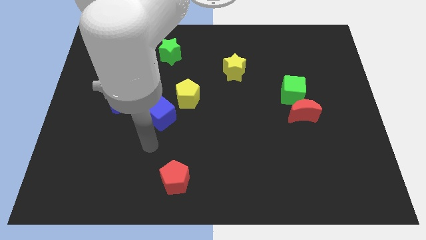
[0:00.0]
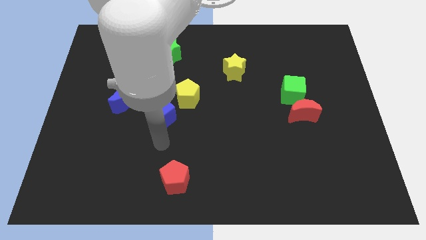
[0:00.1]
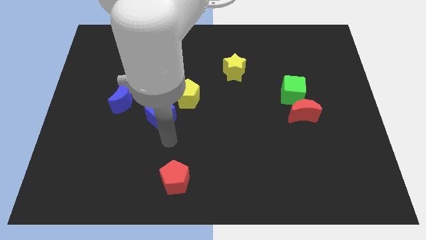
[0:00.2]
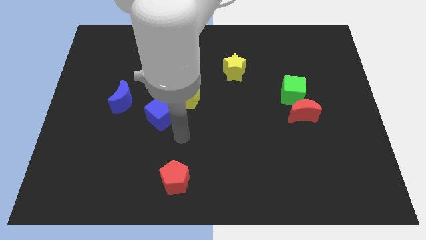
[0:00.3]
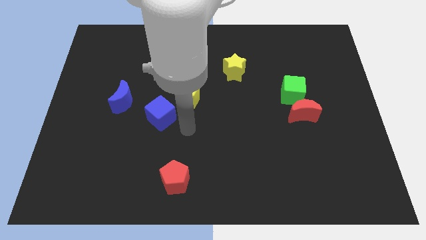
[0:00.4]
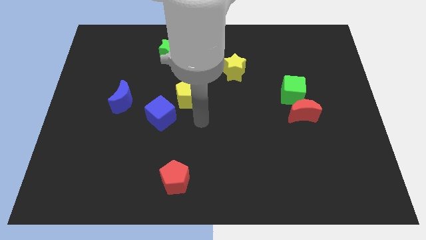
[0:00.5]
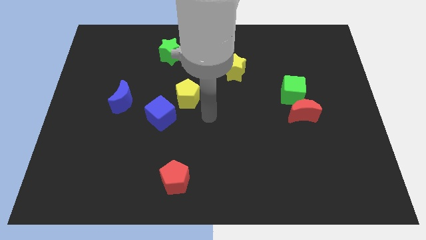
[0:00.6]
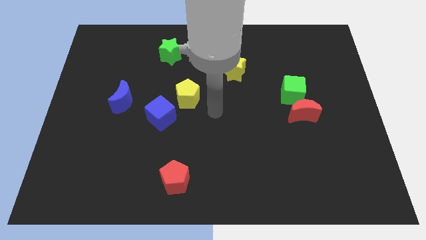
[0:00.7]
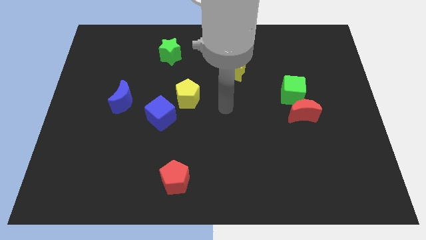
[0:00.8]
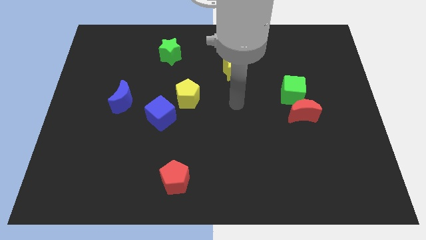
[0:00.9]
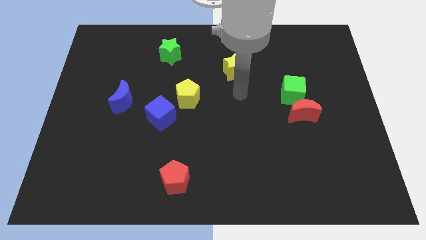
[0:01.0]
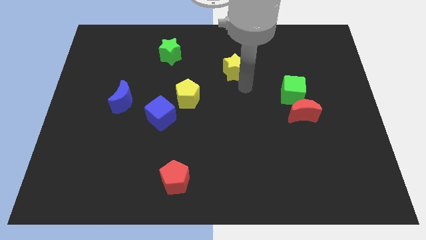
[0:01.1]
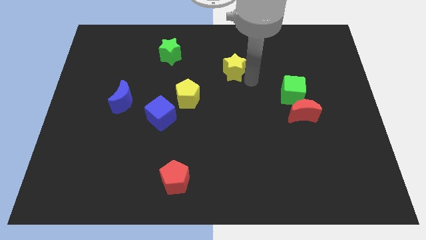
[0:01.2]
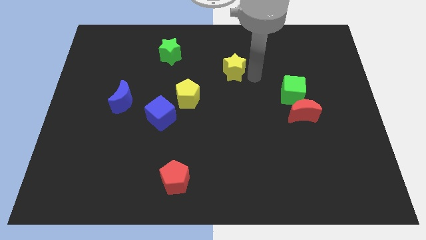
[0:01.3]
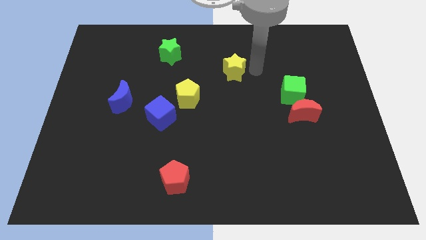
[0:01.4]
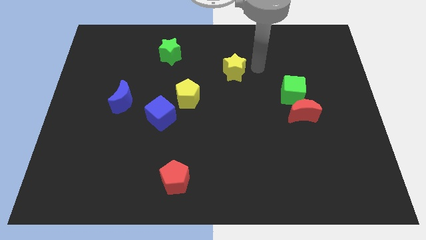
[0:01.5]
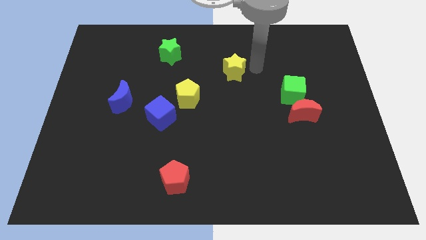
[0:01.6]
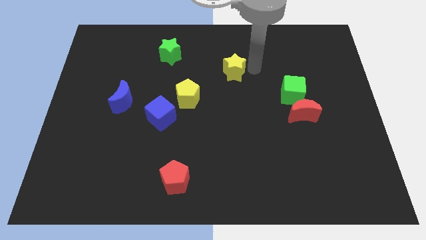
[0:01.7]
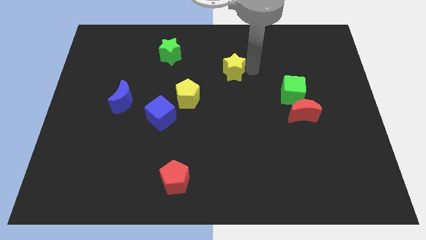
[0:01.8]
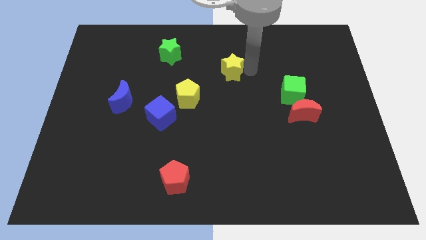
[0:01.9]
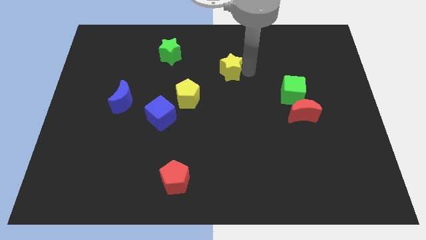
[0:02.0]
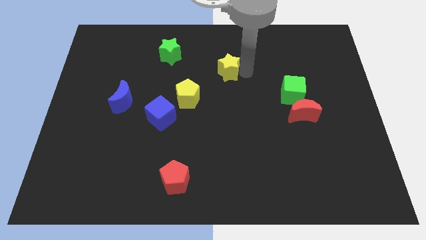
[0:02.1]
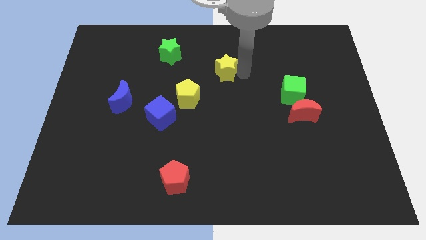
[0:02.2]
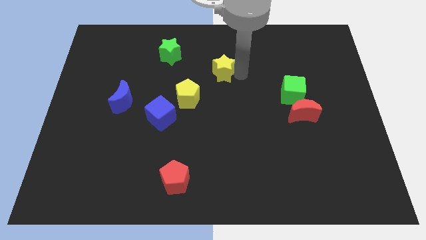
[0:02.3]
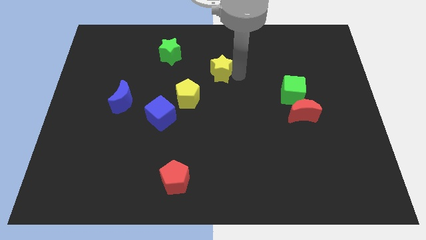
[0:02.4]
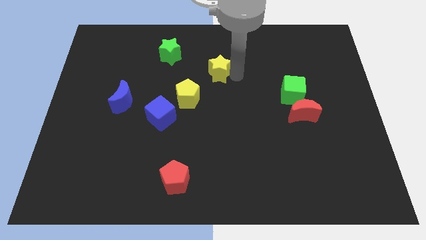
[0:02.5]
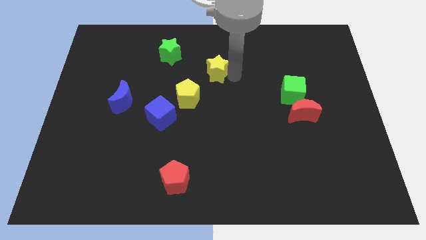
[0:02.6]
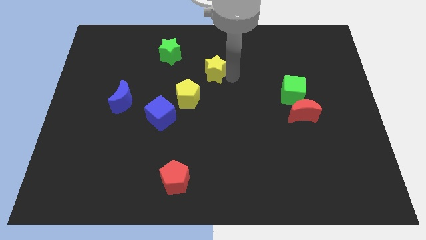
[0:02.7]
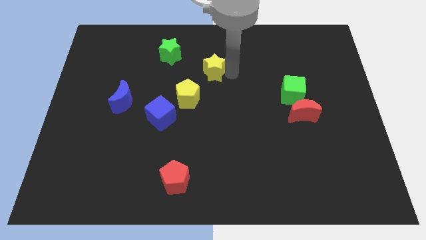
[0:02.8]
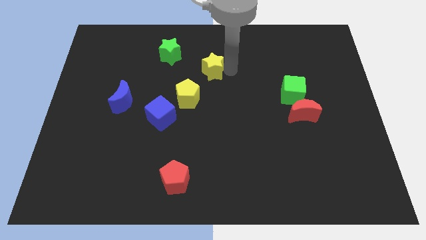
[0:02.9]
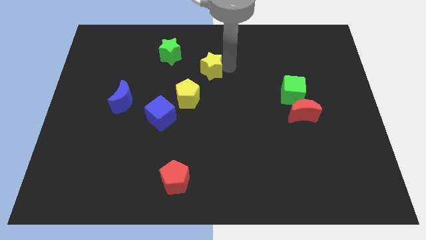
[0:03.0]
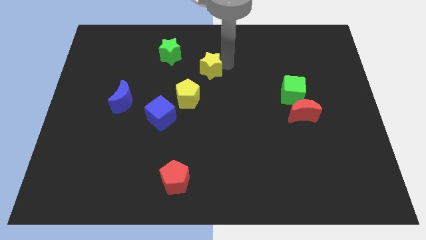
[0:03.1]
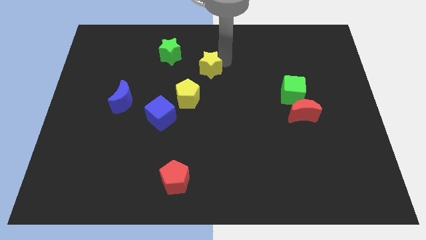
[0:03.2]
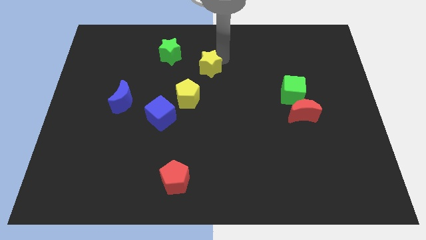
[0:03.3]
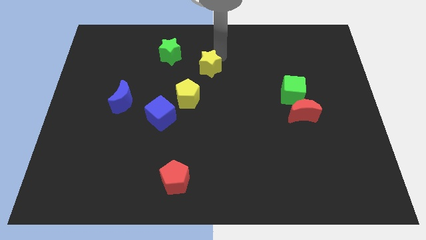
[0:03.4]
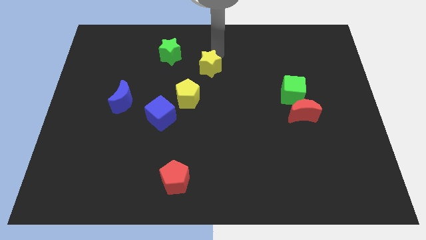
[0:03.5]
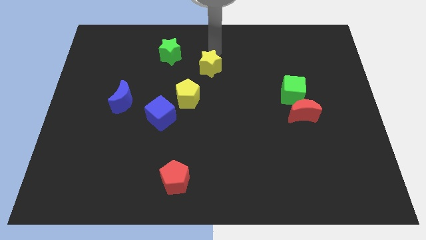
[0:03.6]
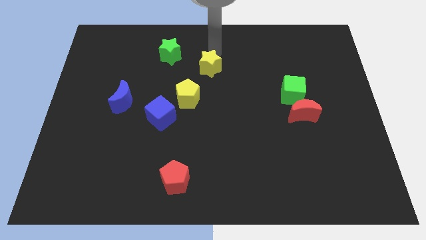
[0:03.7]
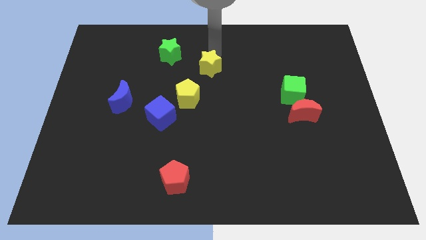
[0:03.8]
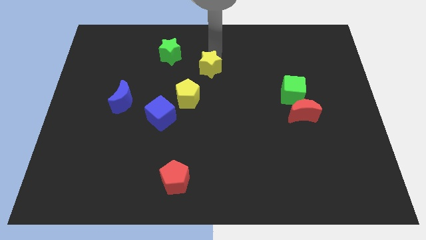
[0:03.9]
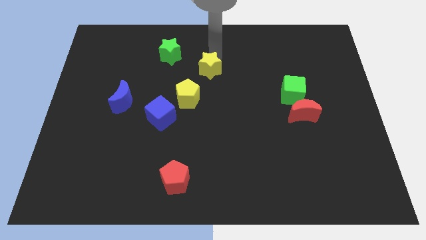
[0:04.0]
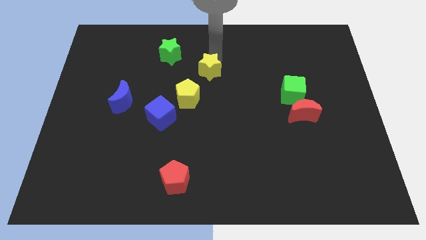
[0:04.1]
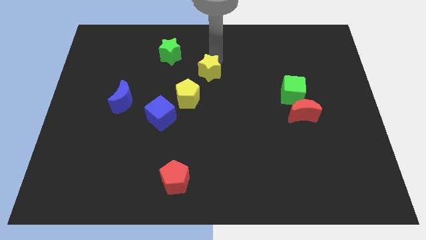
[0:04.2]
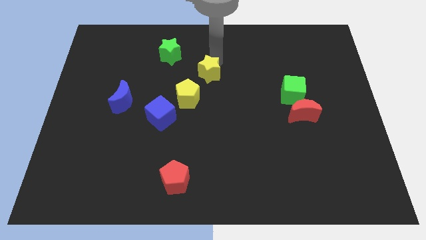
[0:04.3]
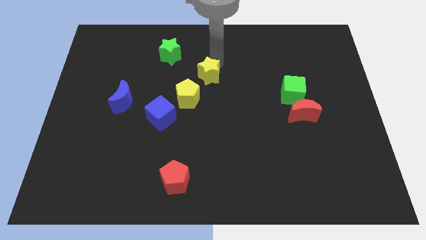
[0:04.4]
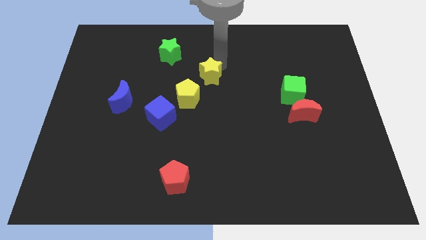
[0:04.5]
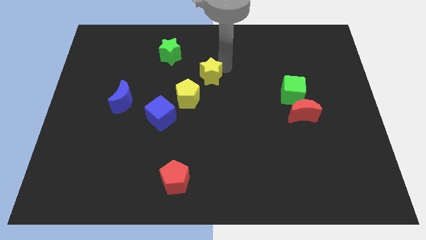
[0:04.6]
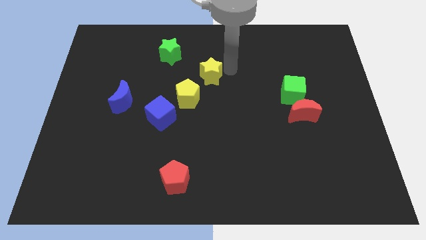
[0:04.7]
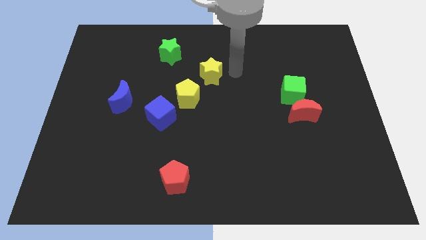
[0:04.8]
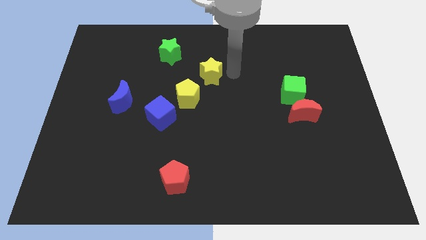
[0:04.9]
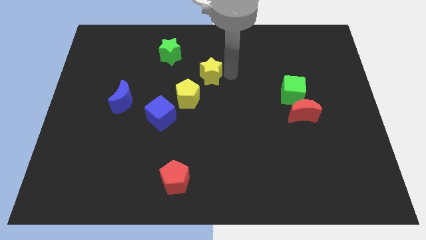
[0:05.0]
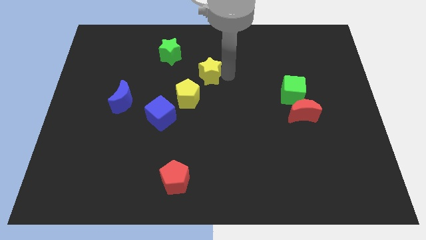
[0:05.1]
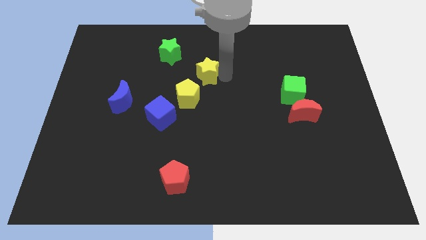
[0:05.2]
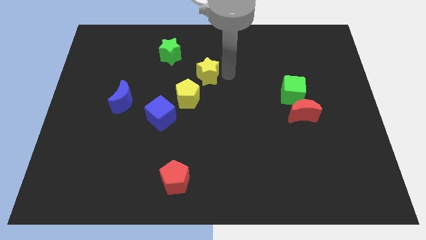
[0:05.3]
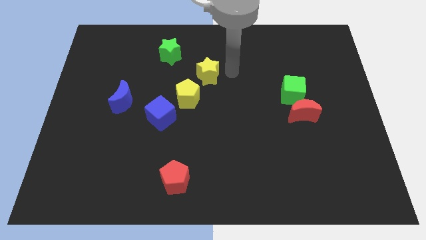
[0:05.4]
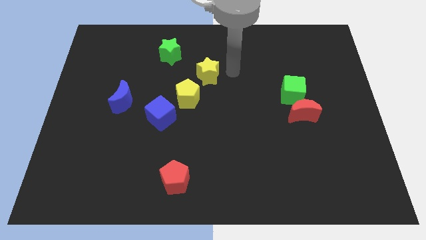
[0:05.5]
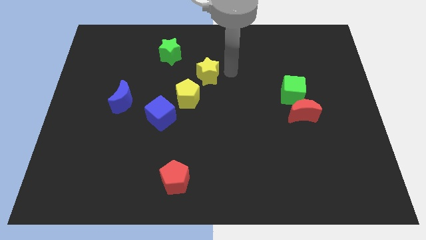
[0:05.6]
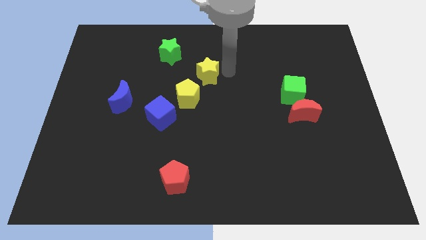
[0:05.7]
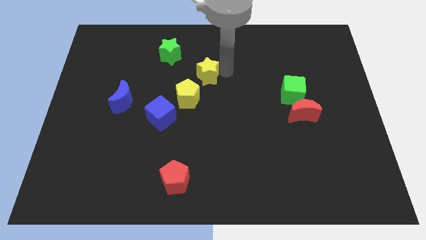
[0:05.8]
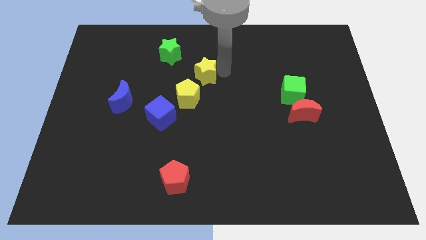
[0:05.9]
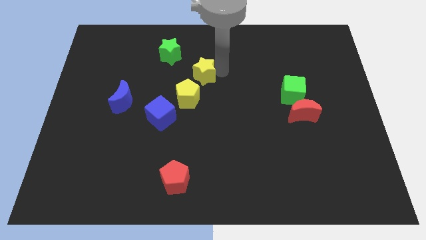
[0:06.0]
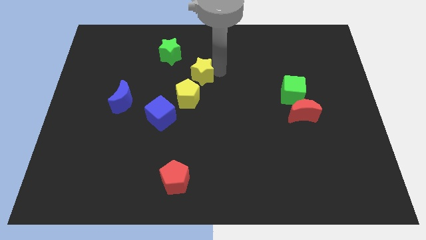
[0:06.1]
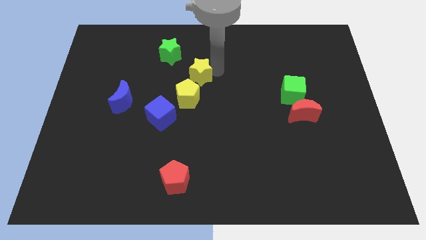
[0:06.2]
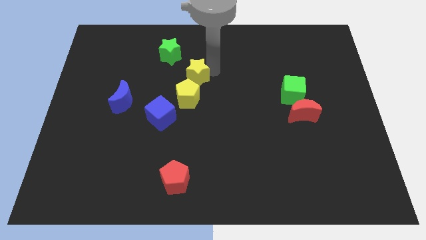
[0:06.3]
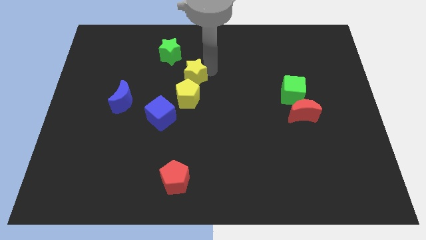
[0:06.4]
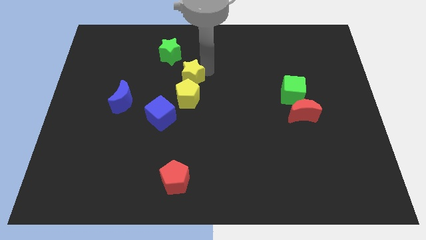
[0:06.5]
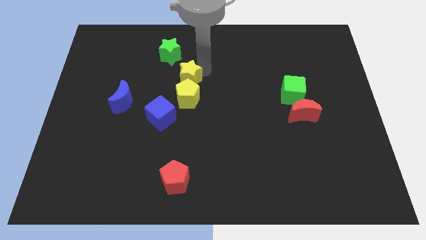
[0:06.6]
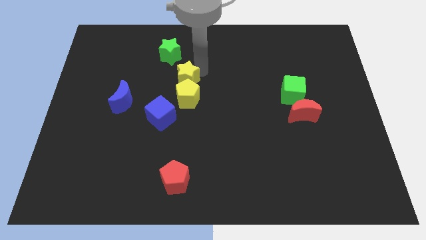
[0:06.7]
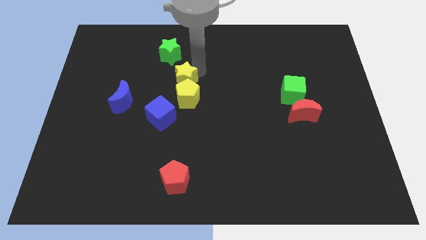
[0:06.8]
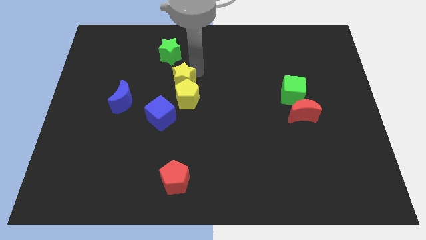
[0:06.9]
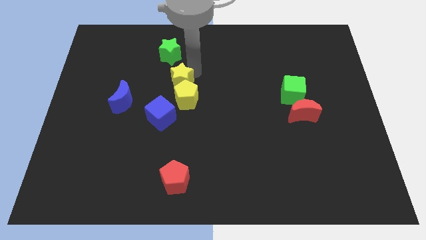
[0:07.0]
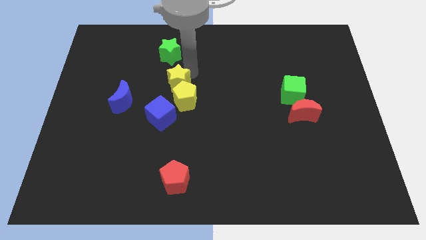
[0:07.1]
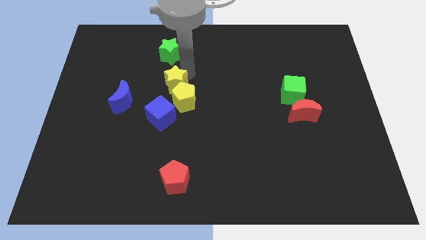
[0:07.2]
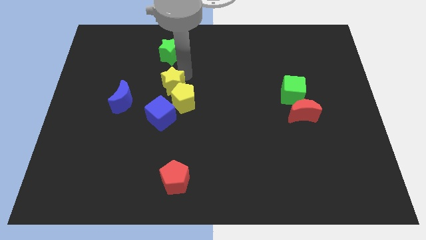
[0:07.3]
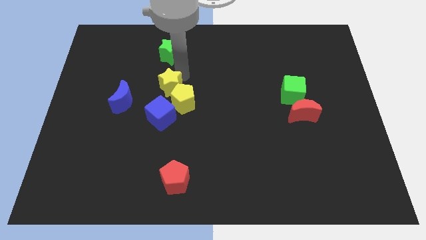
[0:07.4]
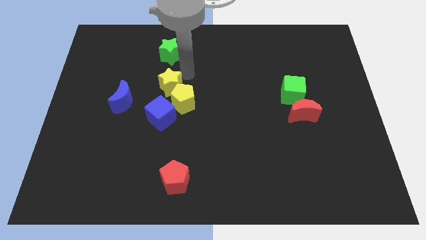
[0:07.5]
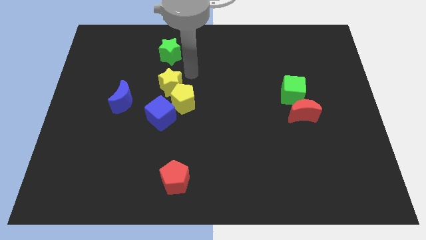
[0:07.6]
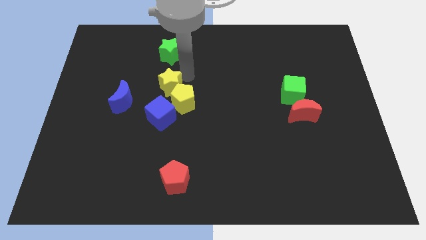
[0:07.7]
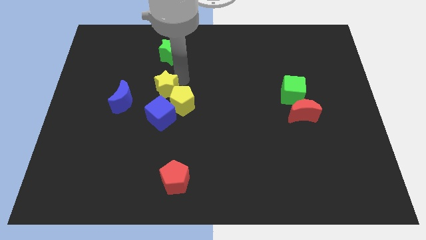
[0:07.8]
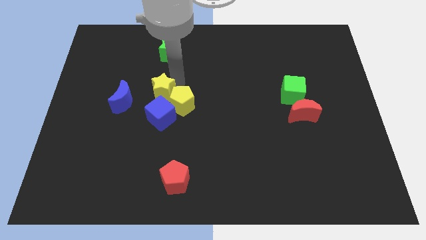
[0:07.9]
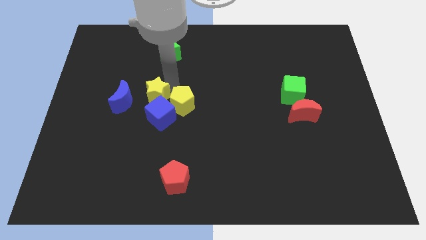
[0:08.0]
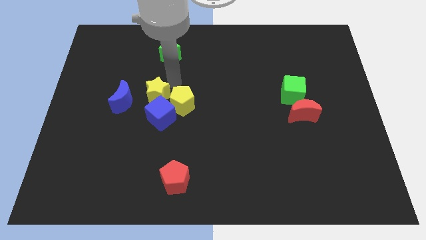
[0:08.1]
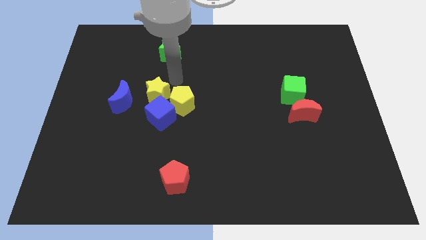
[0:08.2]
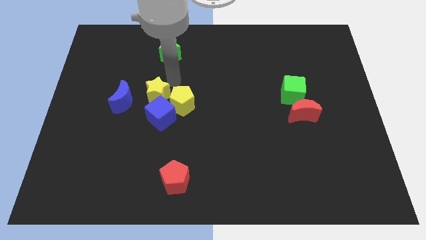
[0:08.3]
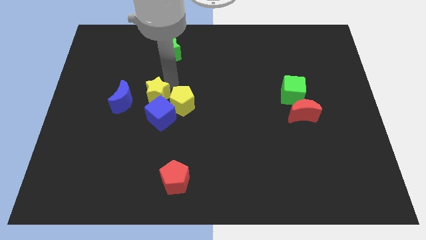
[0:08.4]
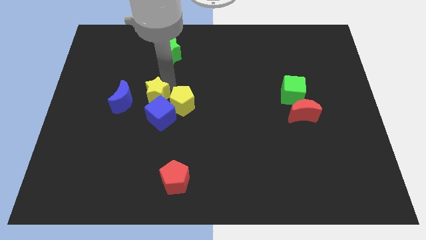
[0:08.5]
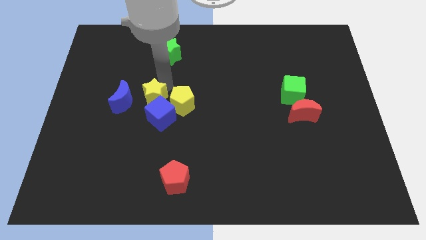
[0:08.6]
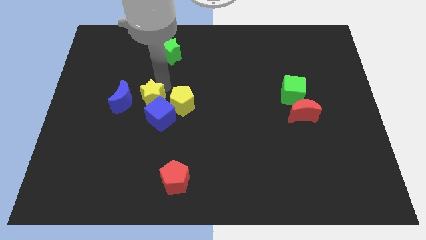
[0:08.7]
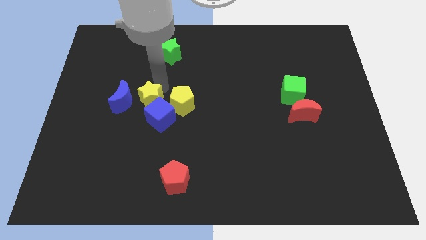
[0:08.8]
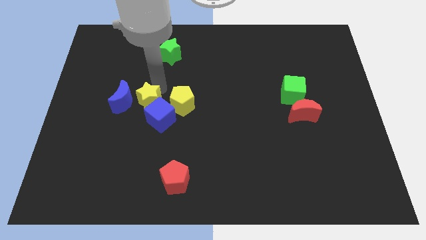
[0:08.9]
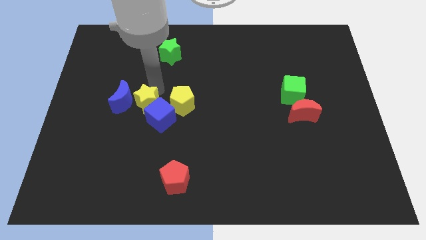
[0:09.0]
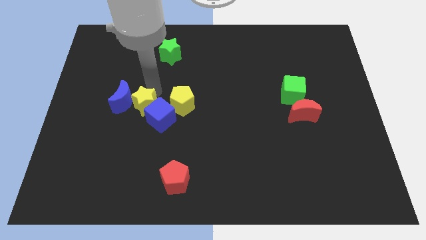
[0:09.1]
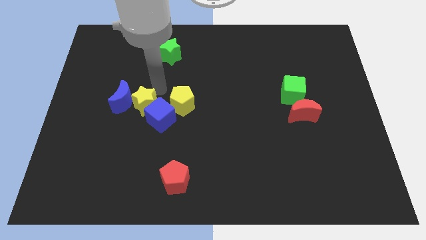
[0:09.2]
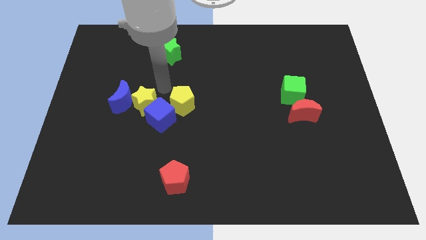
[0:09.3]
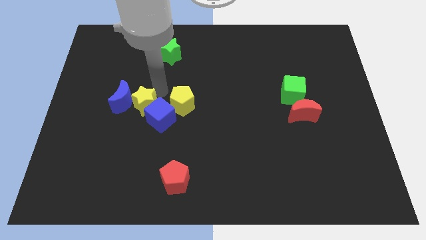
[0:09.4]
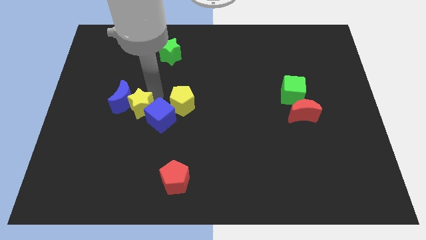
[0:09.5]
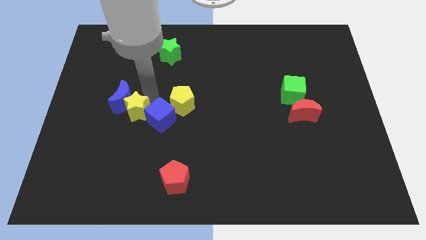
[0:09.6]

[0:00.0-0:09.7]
move the yellow star to the bottom side of the blue moon
